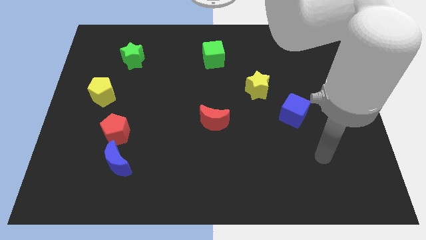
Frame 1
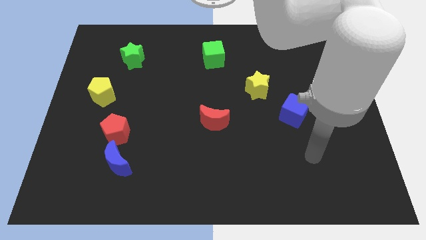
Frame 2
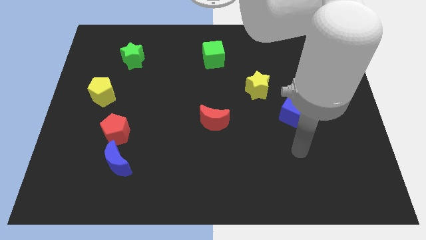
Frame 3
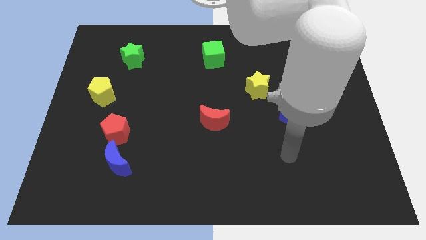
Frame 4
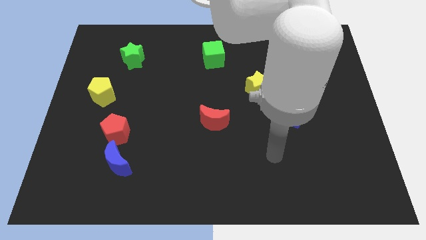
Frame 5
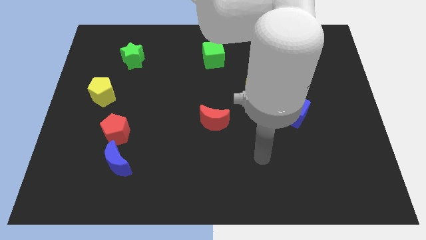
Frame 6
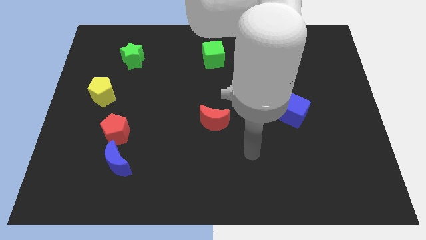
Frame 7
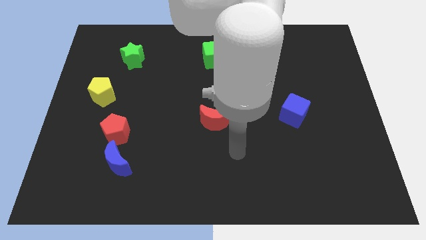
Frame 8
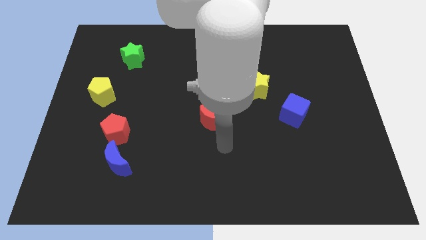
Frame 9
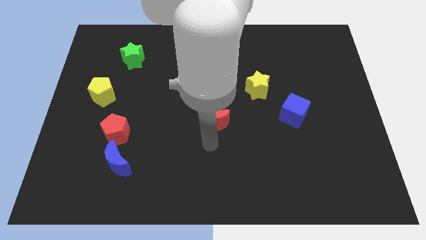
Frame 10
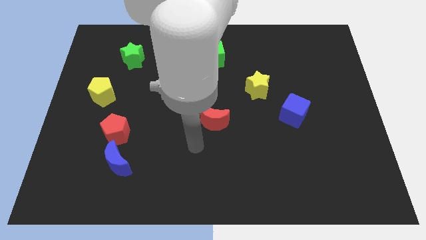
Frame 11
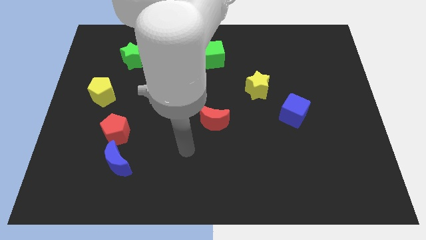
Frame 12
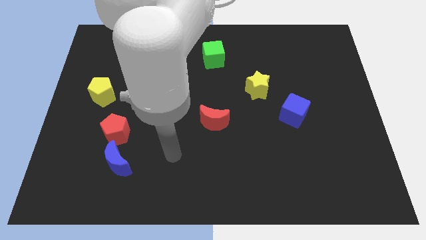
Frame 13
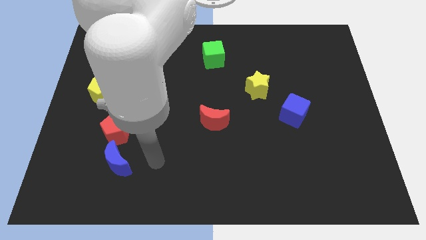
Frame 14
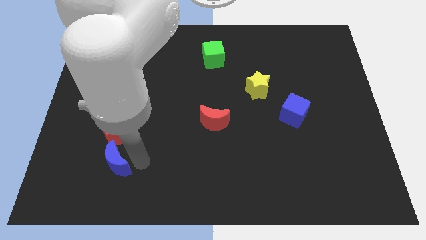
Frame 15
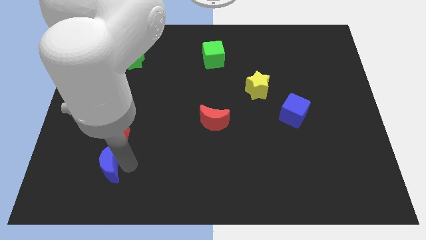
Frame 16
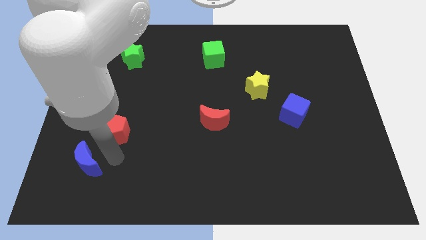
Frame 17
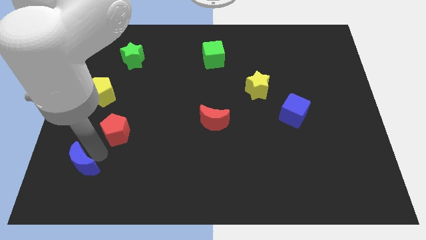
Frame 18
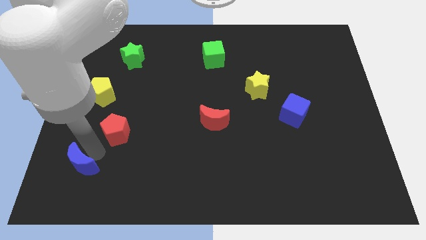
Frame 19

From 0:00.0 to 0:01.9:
separate the red pentagon from the blue moon

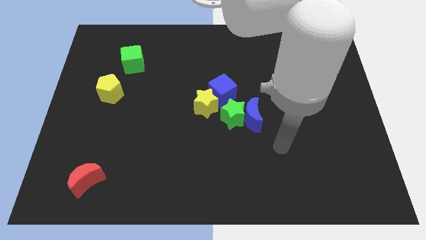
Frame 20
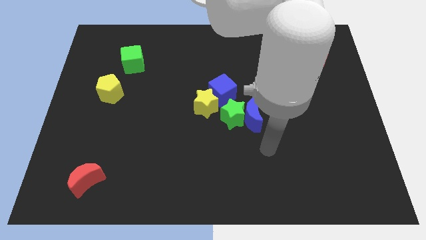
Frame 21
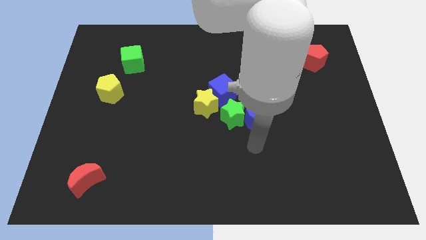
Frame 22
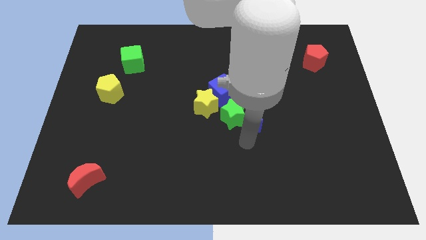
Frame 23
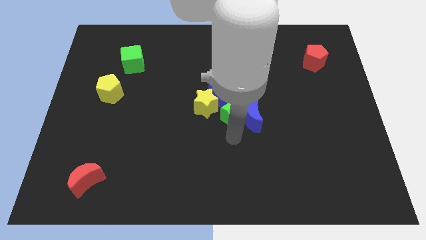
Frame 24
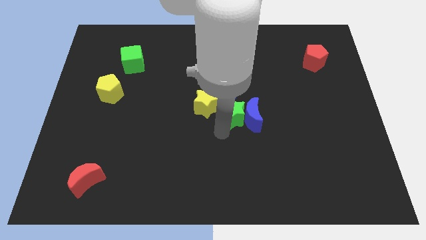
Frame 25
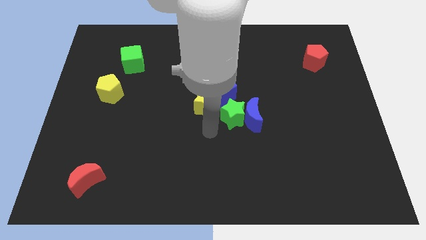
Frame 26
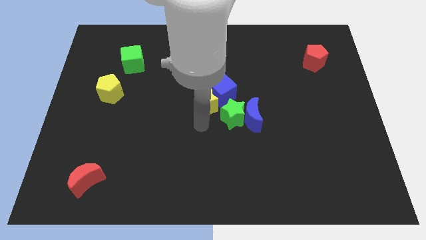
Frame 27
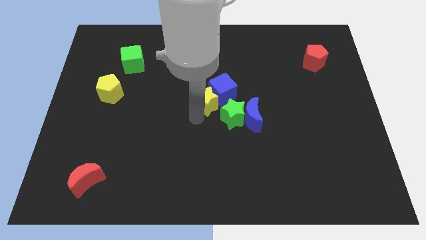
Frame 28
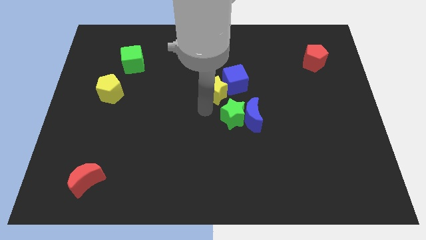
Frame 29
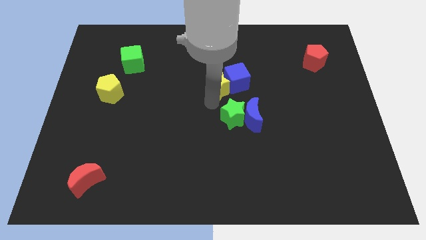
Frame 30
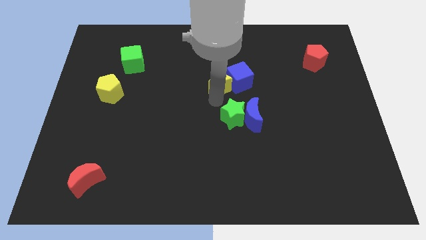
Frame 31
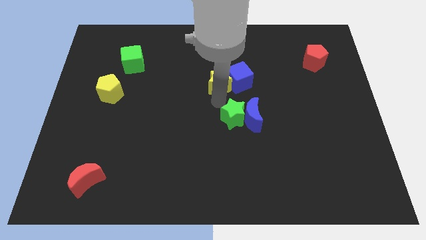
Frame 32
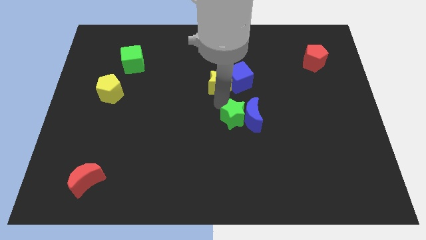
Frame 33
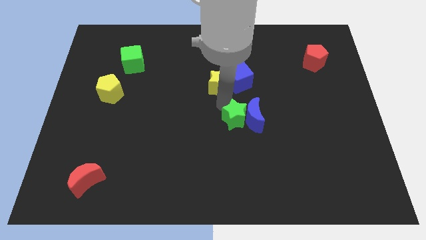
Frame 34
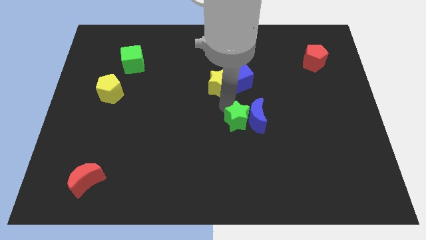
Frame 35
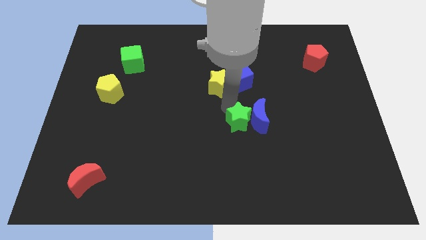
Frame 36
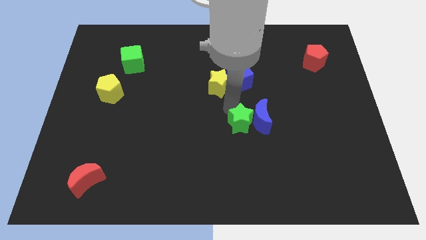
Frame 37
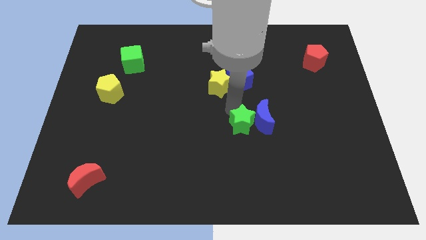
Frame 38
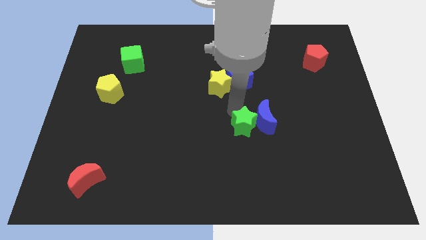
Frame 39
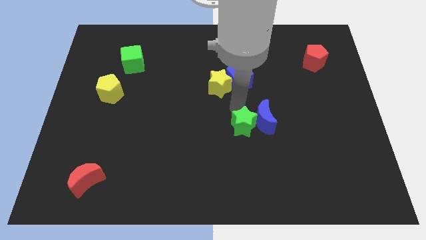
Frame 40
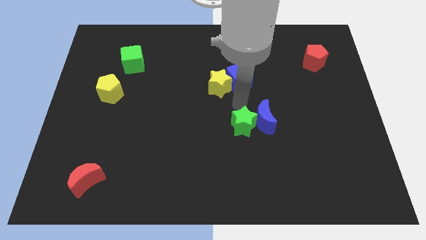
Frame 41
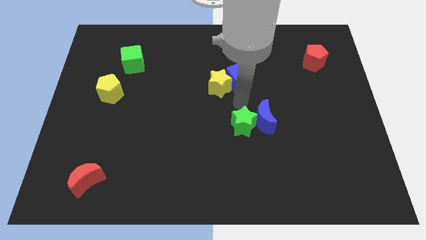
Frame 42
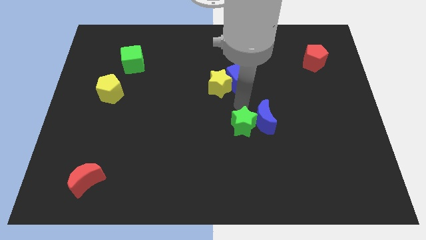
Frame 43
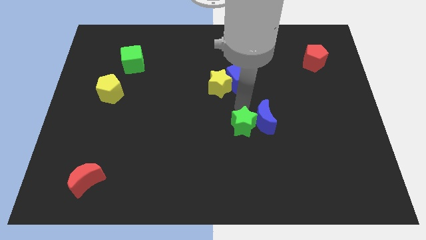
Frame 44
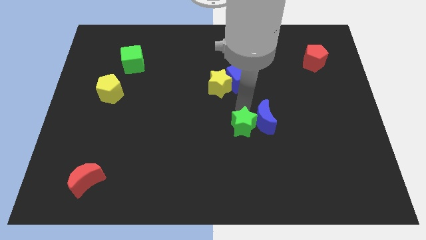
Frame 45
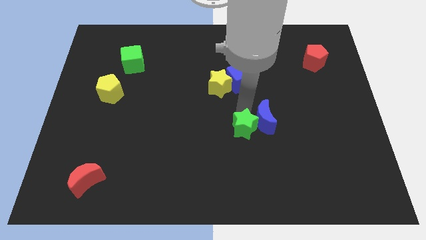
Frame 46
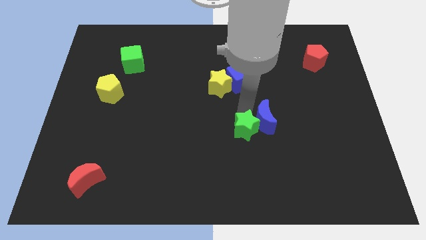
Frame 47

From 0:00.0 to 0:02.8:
pull the green star apart from the blue moon, yellow star, and blue cube

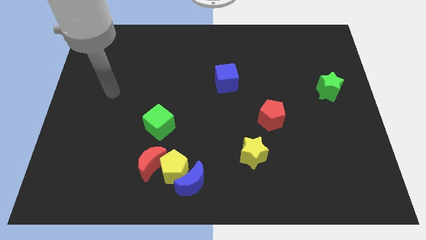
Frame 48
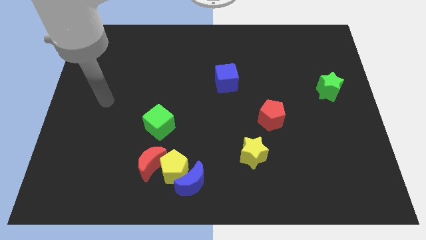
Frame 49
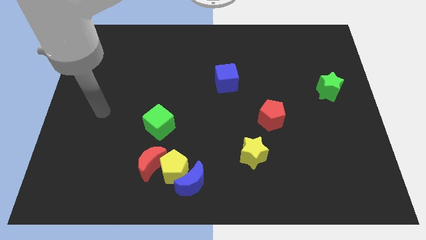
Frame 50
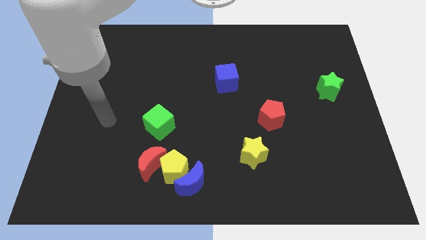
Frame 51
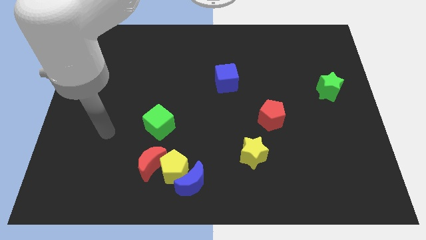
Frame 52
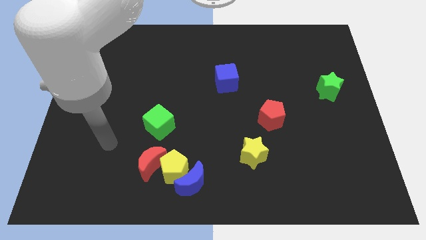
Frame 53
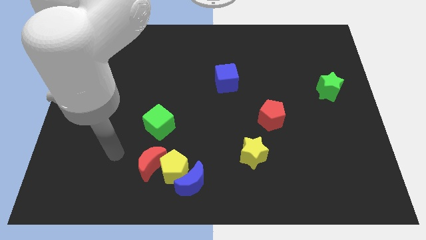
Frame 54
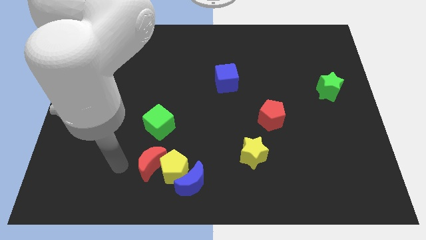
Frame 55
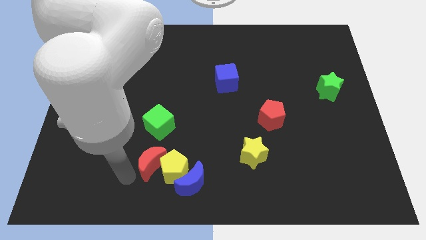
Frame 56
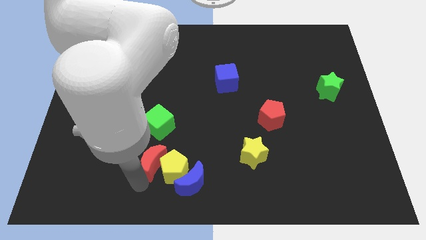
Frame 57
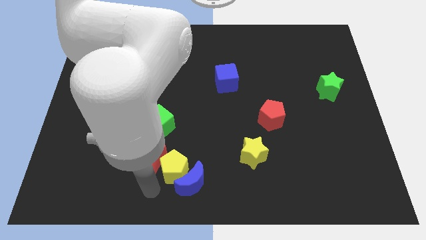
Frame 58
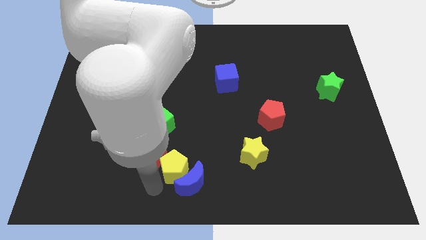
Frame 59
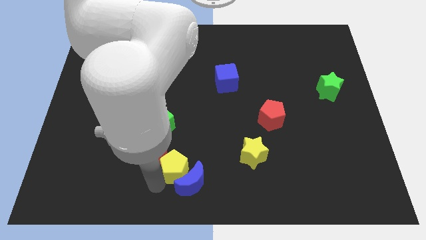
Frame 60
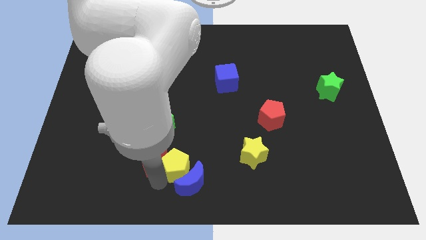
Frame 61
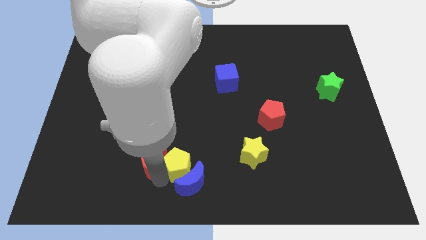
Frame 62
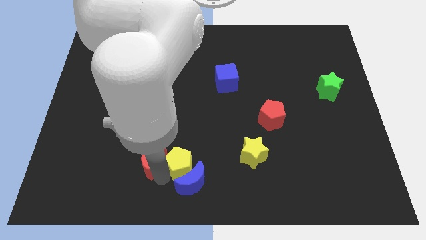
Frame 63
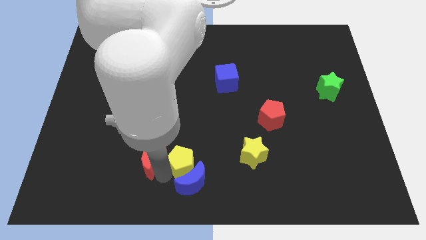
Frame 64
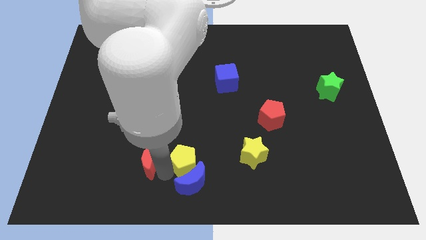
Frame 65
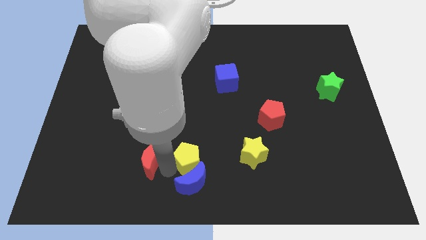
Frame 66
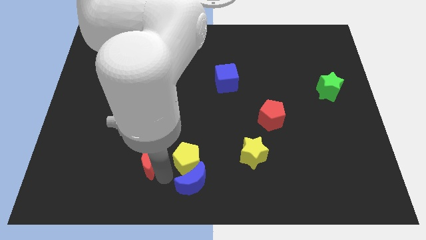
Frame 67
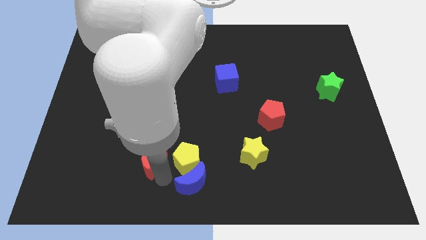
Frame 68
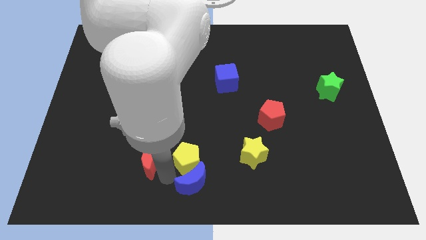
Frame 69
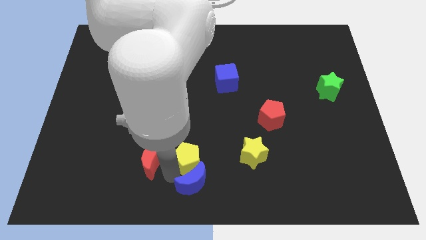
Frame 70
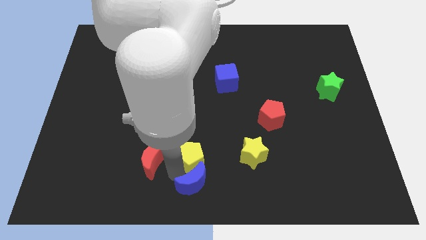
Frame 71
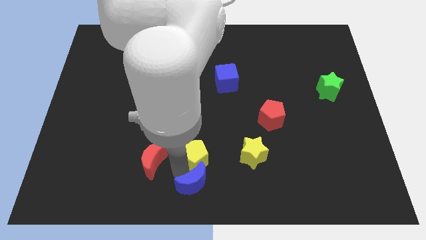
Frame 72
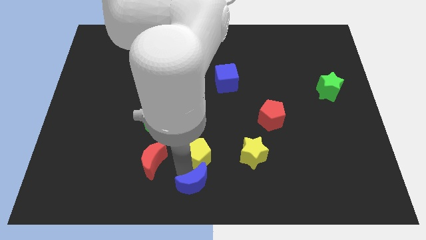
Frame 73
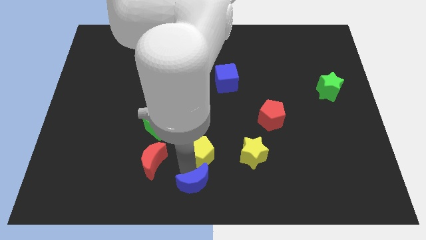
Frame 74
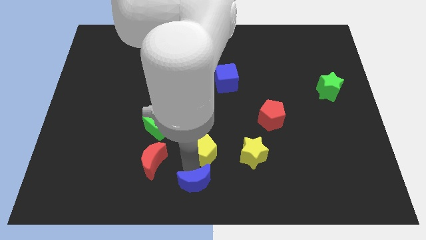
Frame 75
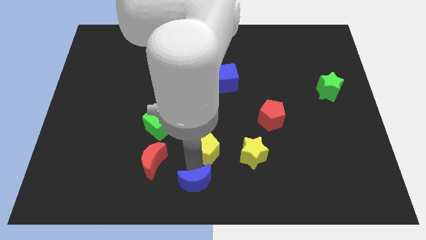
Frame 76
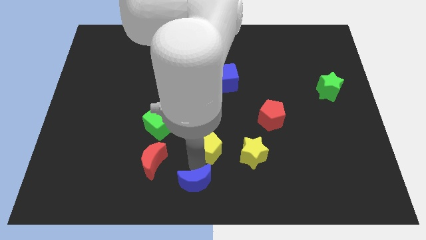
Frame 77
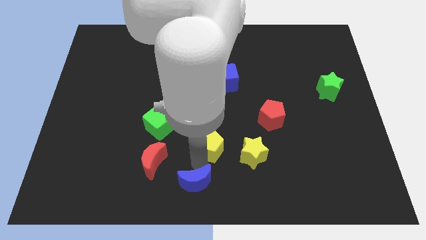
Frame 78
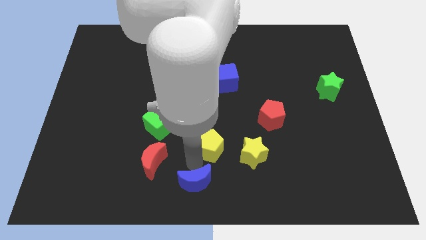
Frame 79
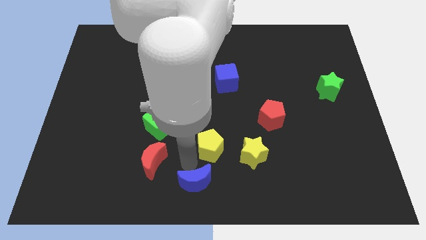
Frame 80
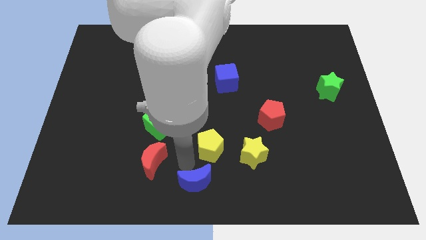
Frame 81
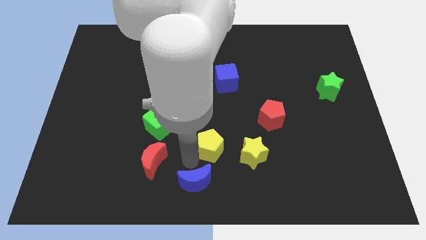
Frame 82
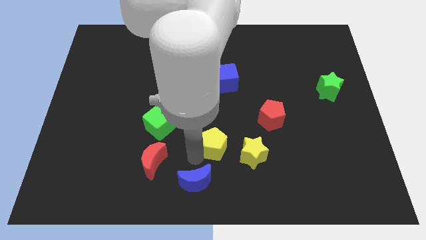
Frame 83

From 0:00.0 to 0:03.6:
separate the yellow pentagon from the blue moon and red moon

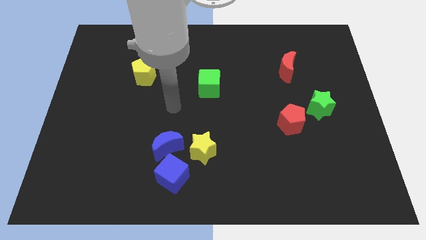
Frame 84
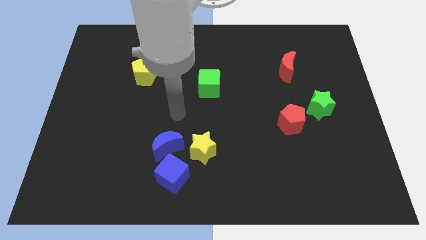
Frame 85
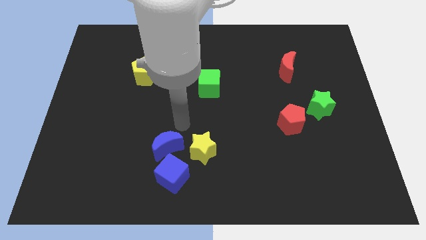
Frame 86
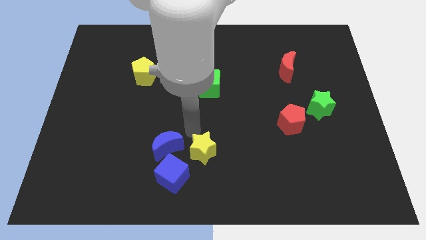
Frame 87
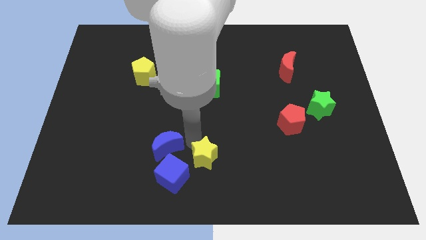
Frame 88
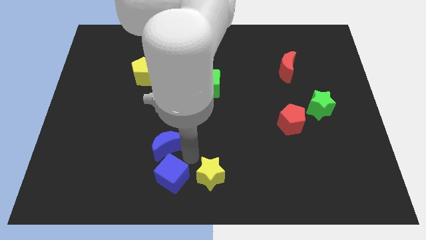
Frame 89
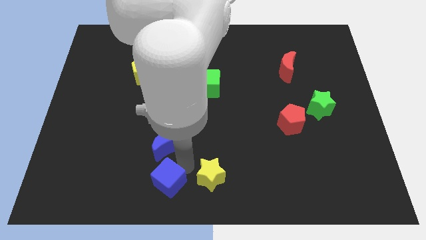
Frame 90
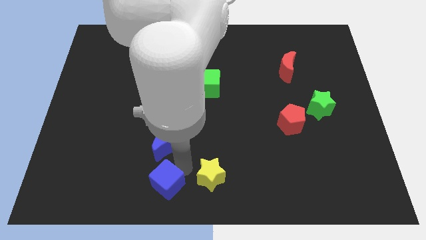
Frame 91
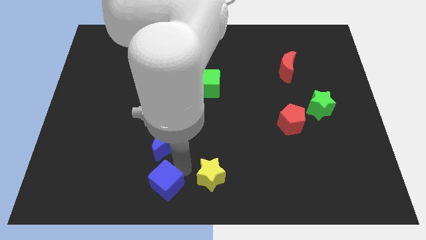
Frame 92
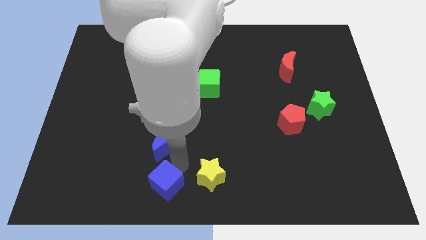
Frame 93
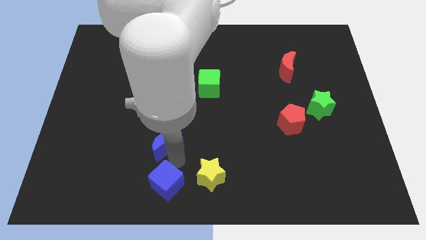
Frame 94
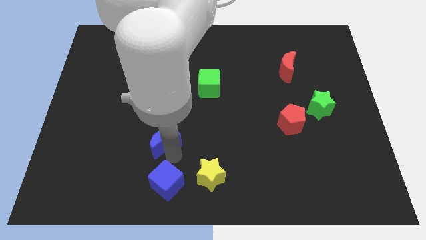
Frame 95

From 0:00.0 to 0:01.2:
separate the blue moon from the blue cube and yellow star
